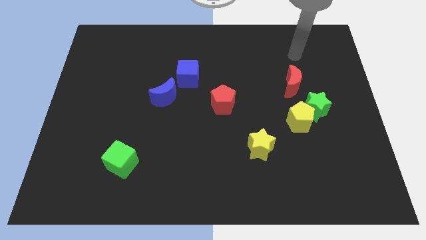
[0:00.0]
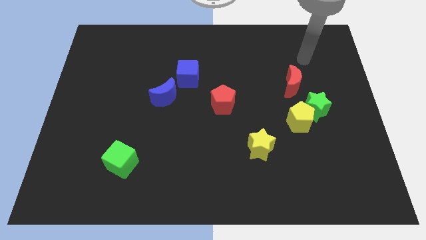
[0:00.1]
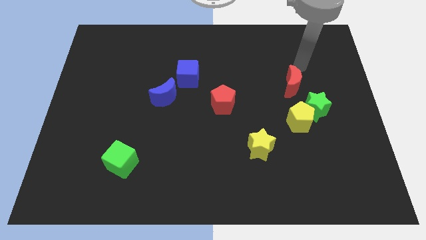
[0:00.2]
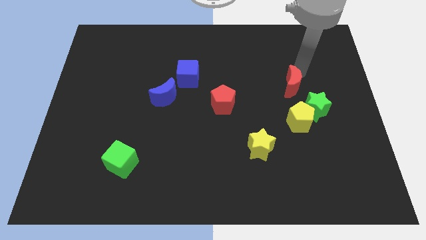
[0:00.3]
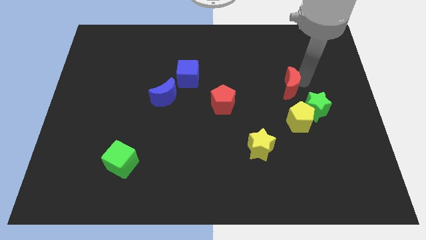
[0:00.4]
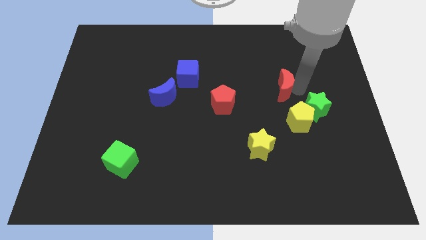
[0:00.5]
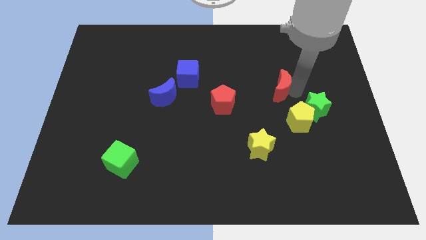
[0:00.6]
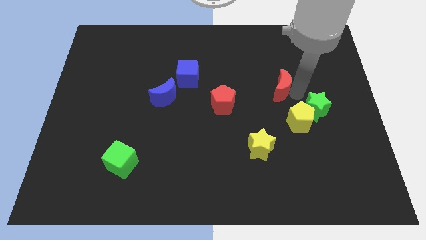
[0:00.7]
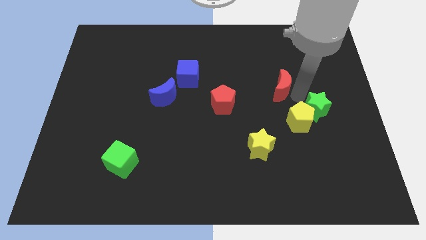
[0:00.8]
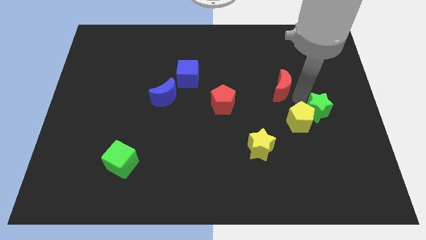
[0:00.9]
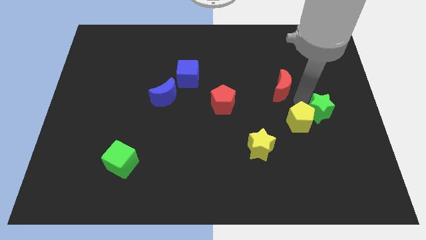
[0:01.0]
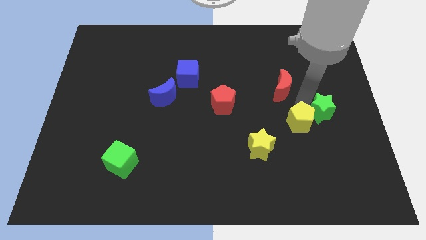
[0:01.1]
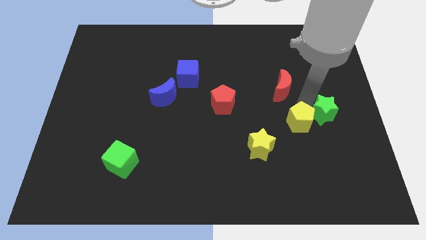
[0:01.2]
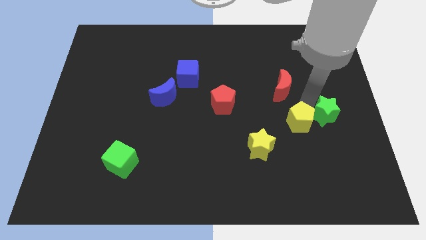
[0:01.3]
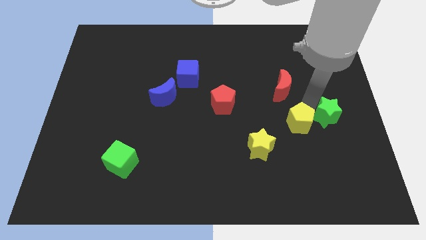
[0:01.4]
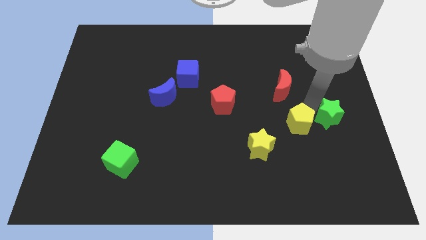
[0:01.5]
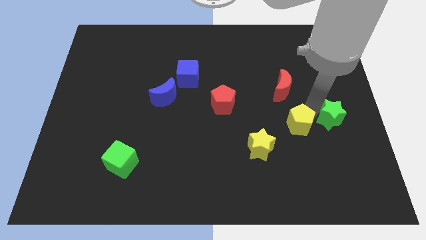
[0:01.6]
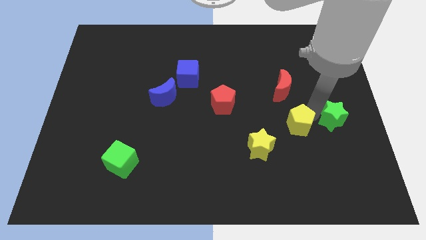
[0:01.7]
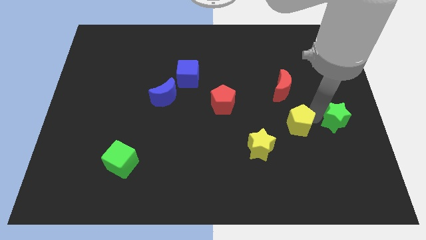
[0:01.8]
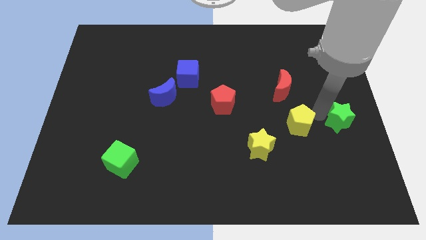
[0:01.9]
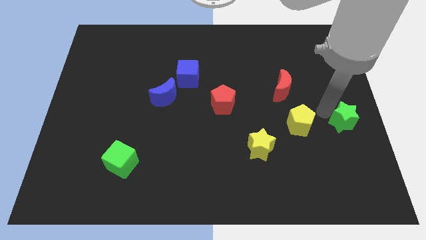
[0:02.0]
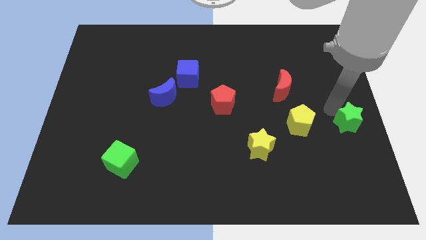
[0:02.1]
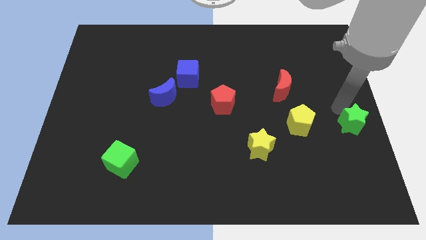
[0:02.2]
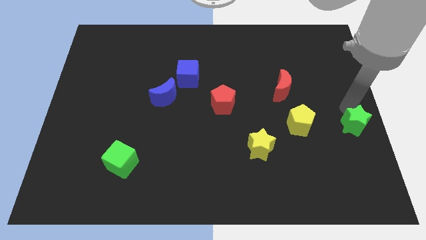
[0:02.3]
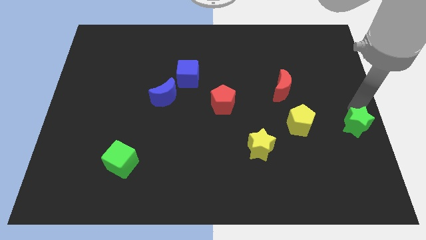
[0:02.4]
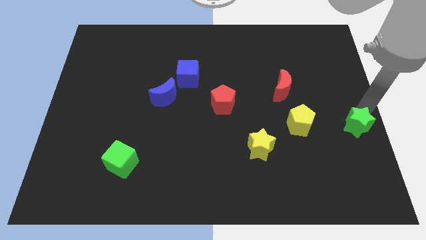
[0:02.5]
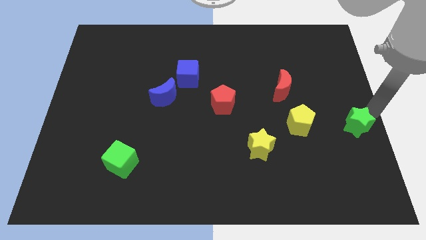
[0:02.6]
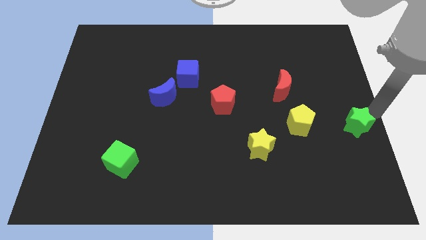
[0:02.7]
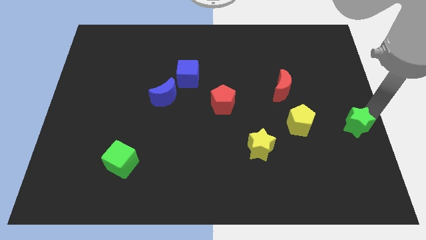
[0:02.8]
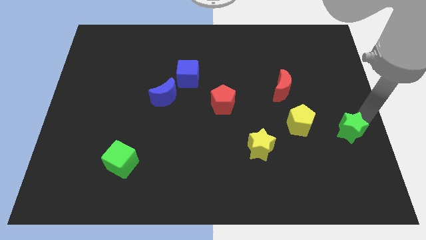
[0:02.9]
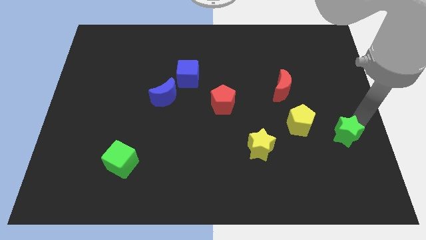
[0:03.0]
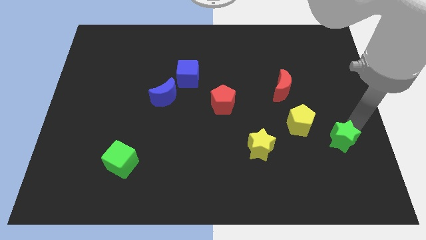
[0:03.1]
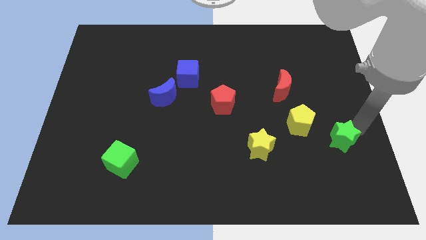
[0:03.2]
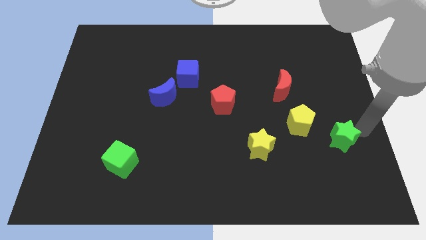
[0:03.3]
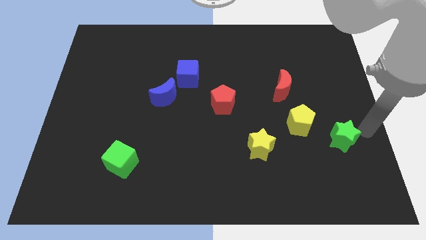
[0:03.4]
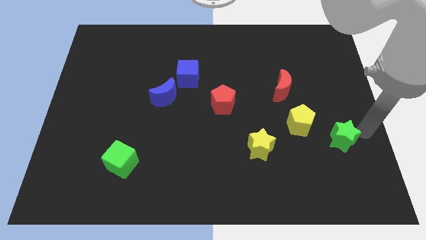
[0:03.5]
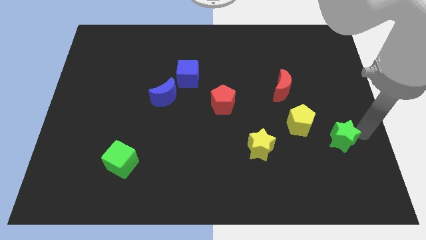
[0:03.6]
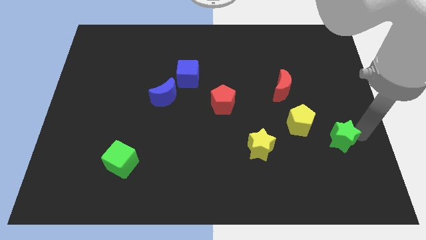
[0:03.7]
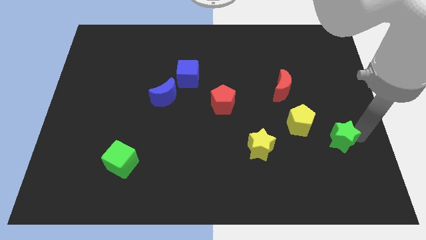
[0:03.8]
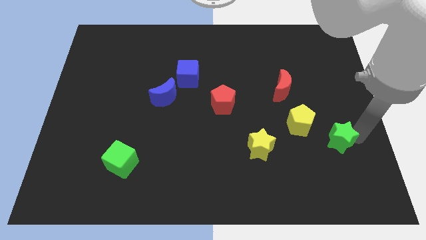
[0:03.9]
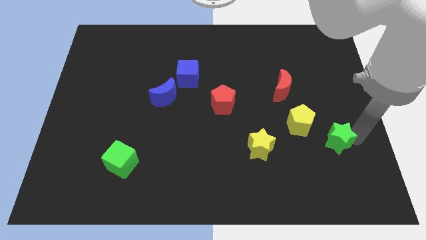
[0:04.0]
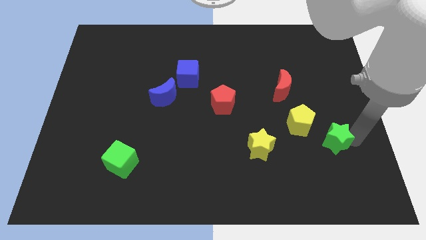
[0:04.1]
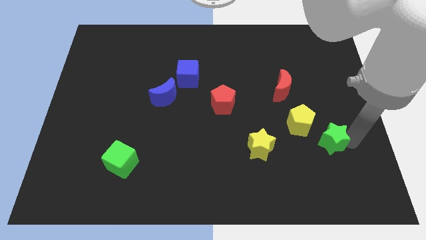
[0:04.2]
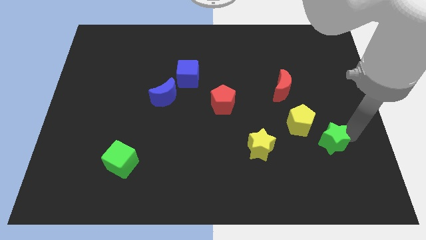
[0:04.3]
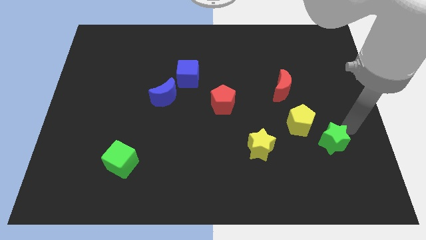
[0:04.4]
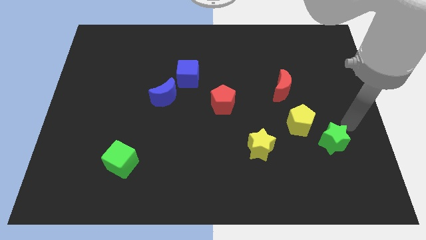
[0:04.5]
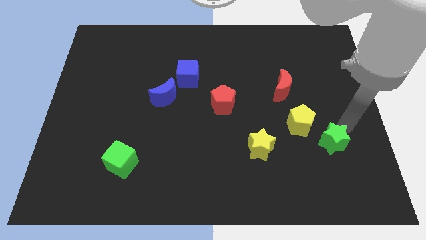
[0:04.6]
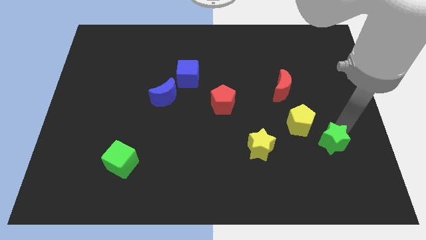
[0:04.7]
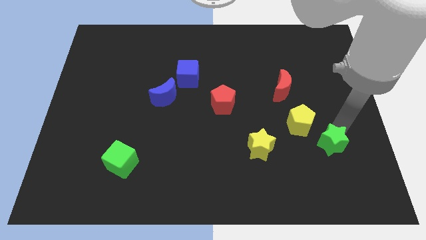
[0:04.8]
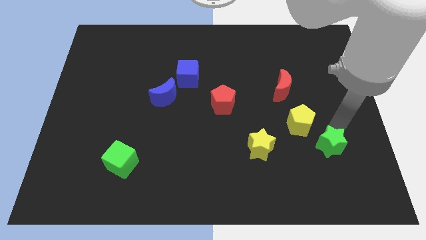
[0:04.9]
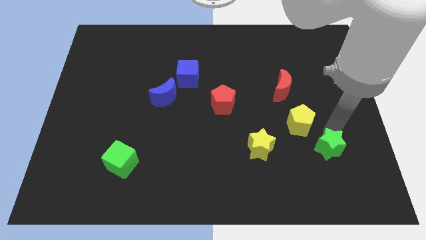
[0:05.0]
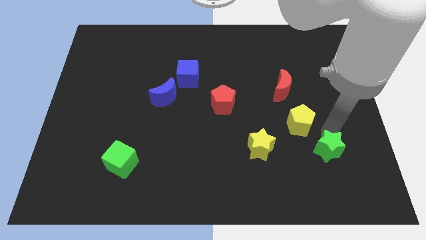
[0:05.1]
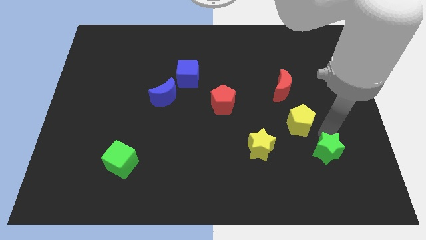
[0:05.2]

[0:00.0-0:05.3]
put the green star to the bottom of the yellow pentagon

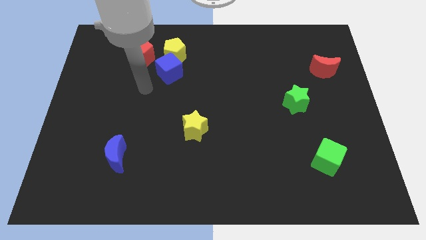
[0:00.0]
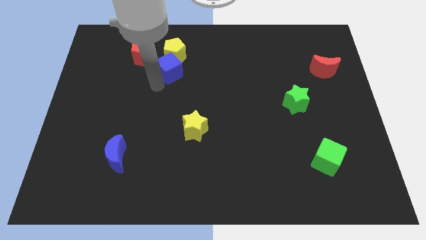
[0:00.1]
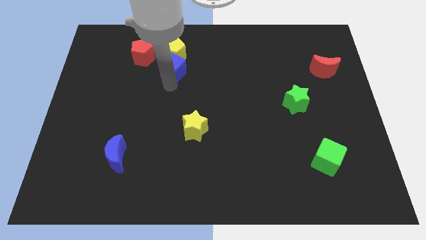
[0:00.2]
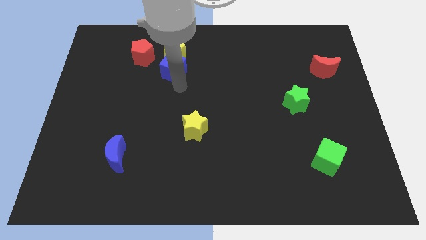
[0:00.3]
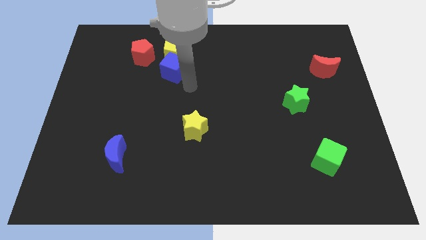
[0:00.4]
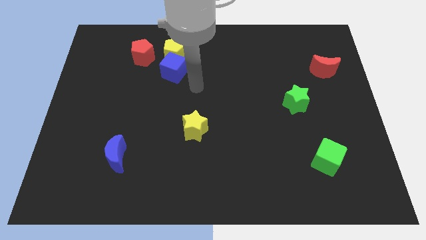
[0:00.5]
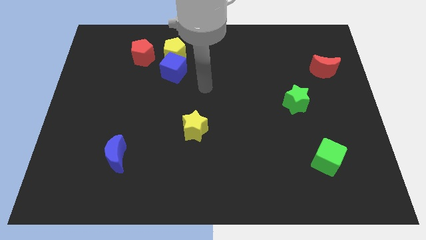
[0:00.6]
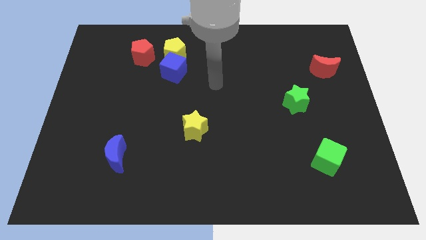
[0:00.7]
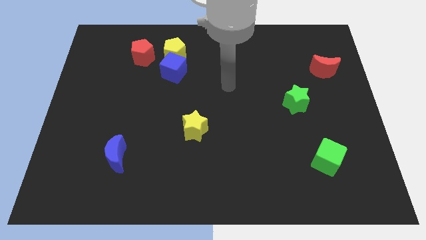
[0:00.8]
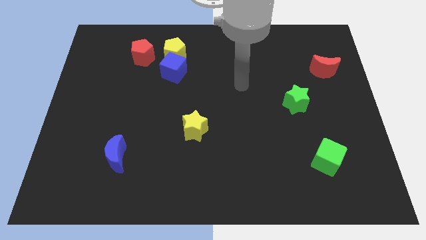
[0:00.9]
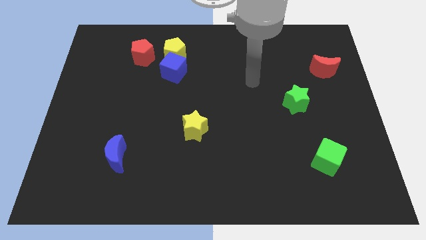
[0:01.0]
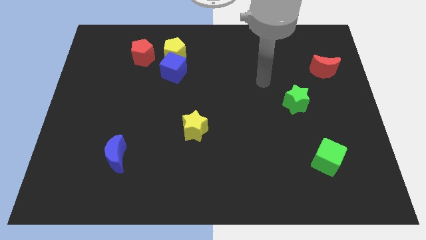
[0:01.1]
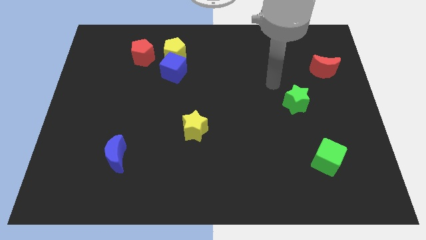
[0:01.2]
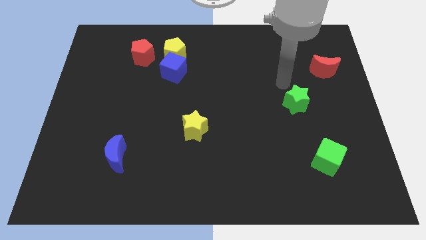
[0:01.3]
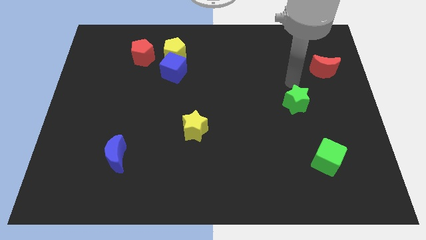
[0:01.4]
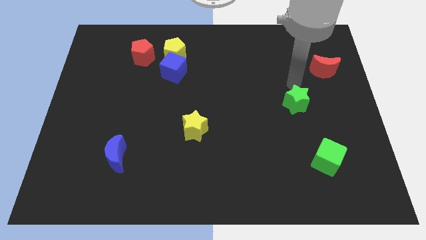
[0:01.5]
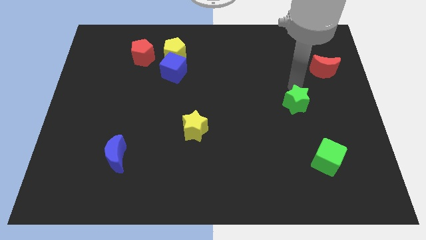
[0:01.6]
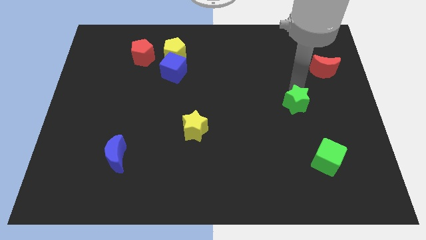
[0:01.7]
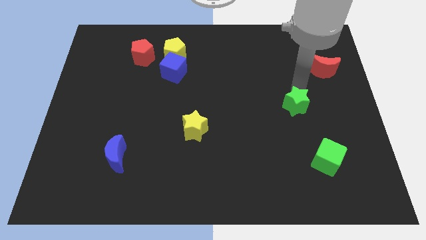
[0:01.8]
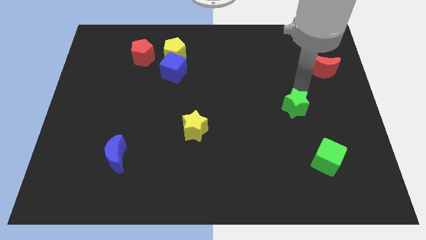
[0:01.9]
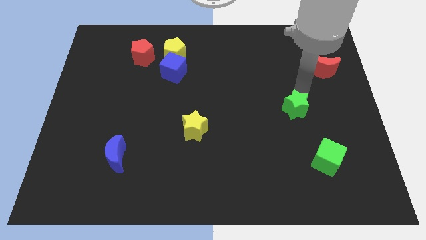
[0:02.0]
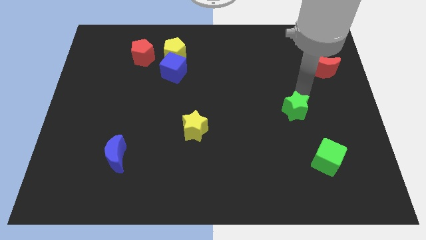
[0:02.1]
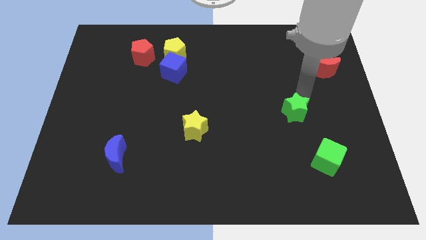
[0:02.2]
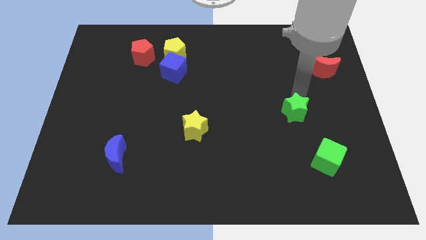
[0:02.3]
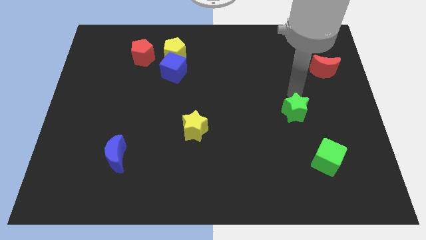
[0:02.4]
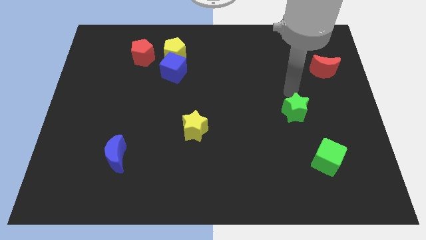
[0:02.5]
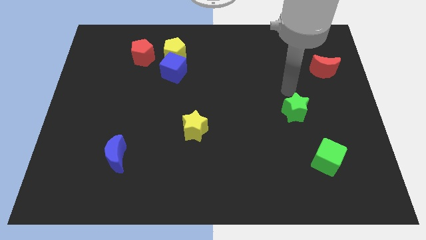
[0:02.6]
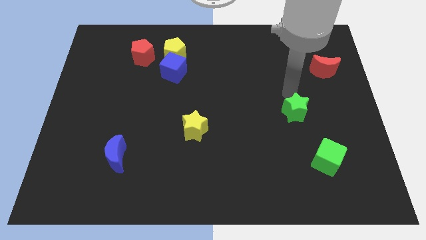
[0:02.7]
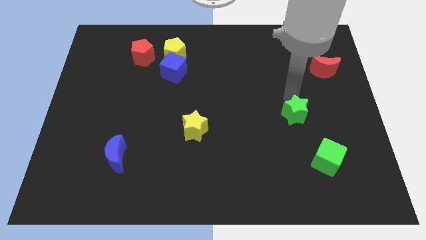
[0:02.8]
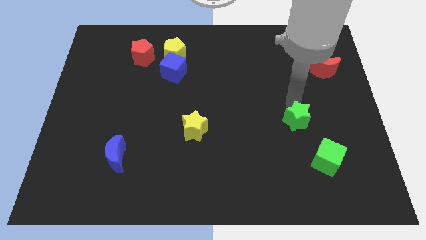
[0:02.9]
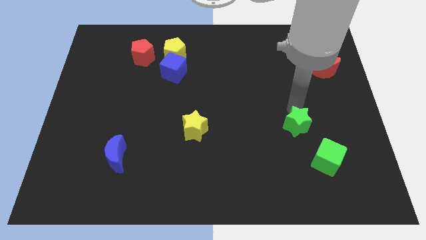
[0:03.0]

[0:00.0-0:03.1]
push the green star to the top left of the green cube
